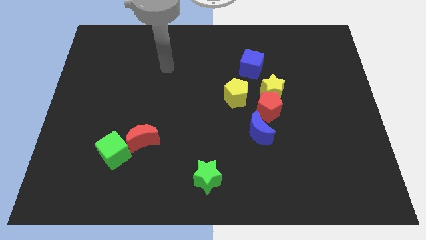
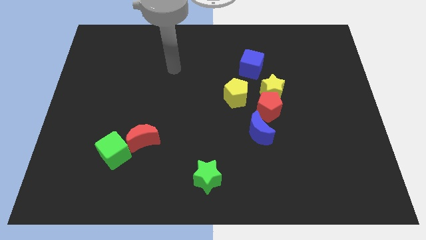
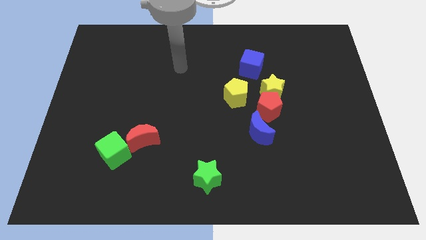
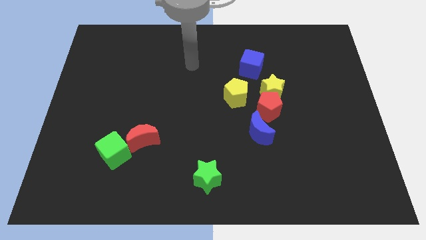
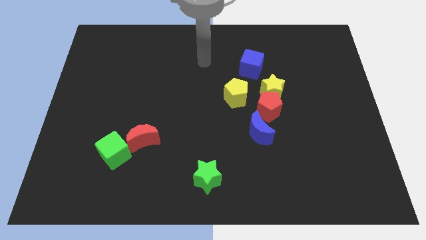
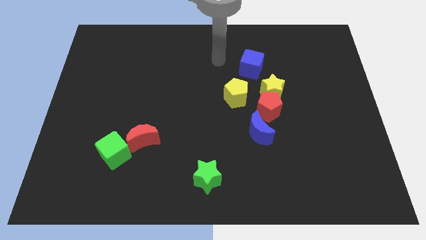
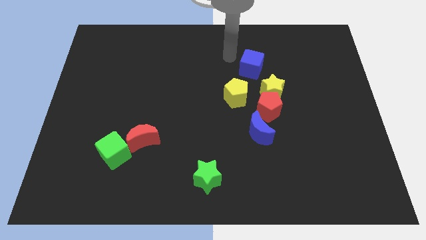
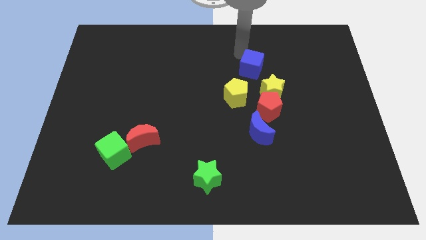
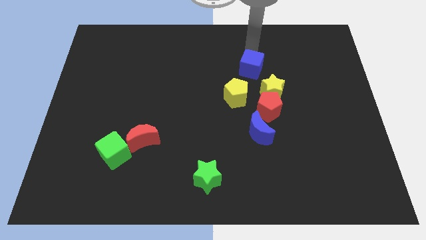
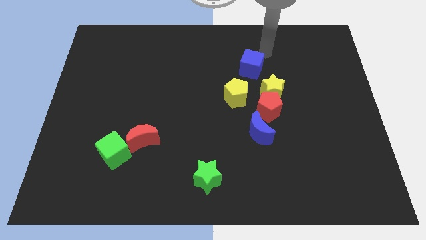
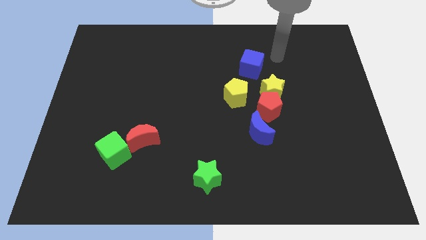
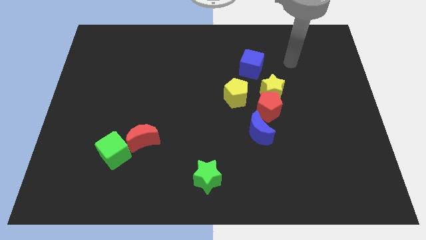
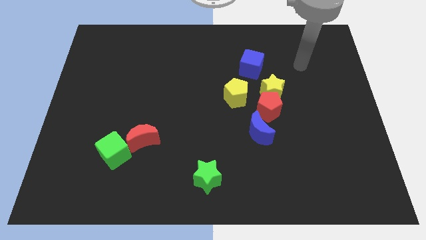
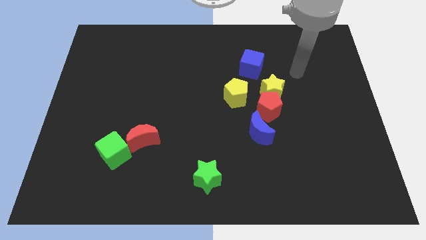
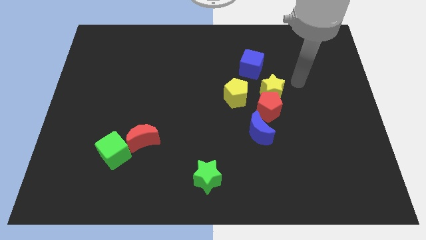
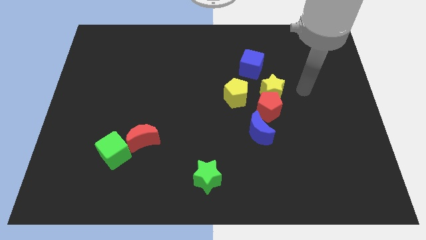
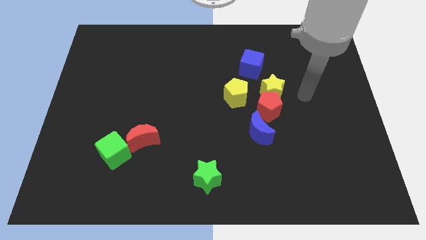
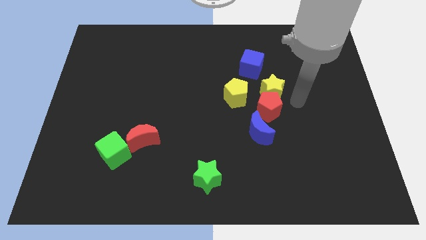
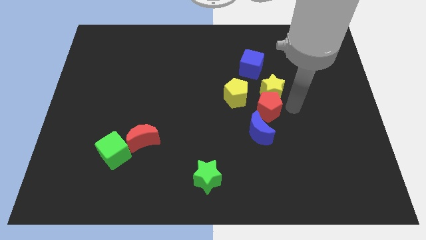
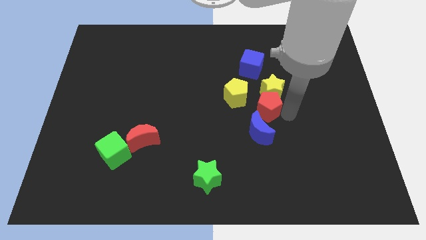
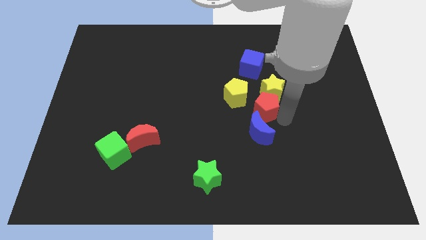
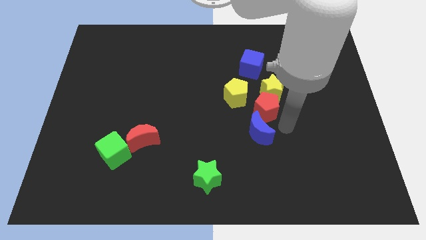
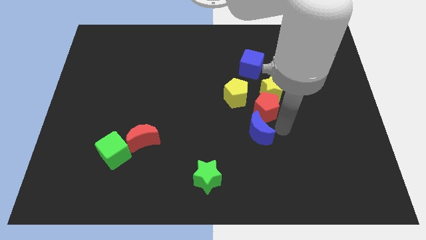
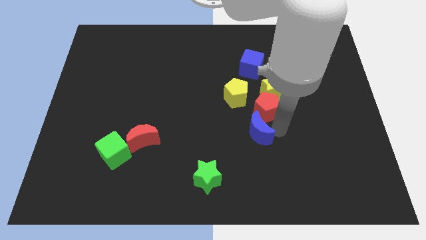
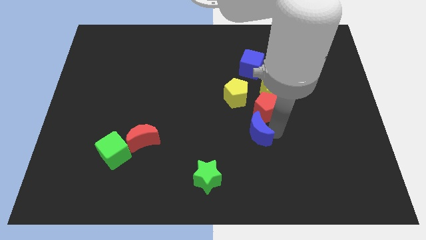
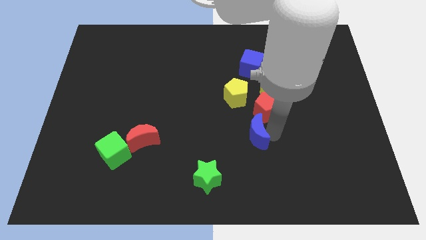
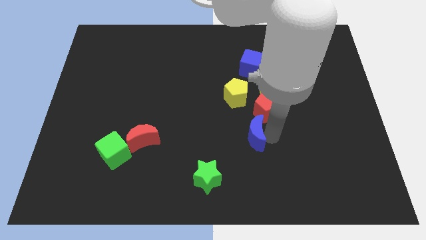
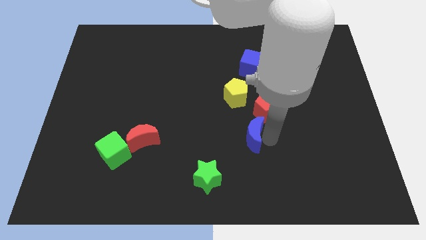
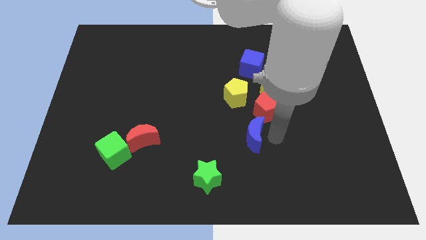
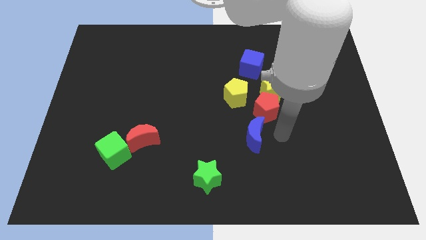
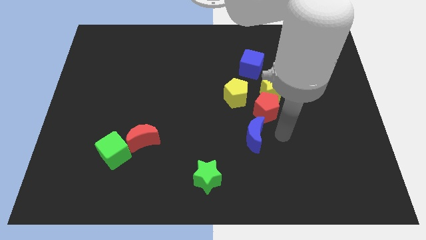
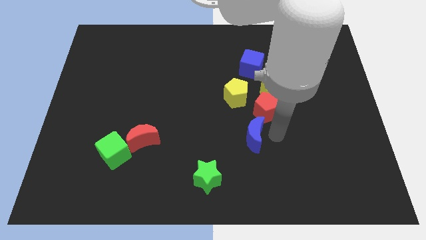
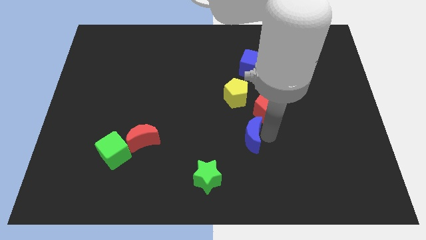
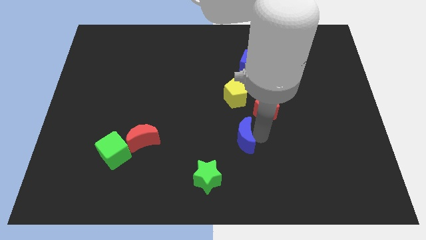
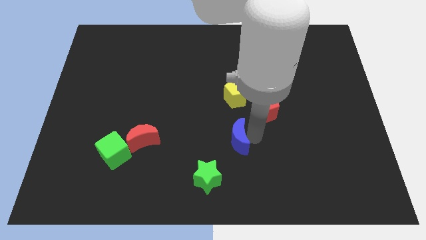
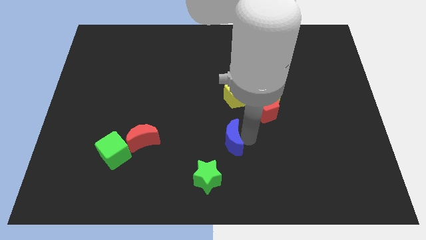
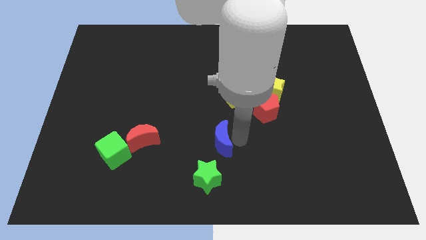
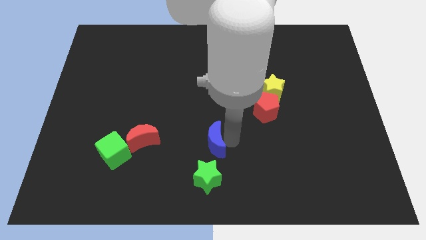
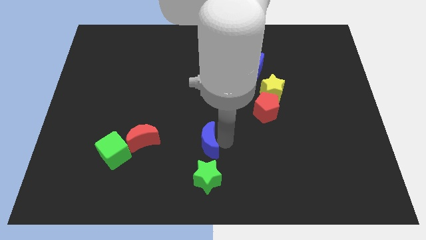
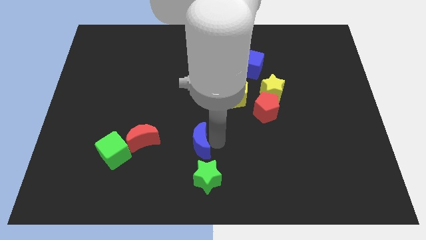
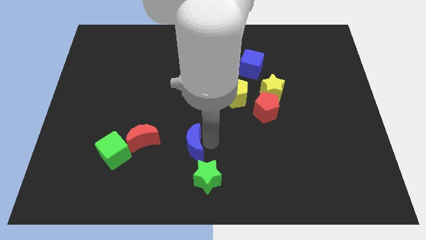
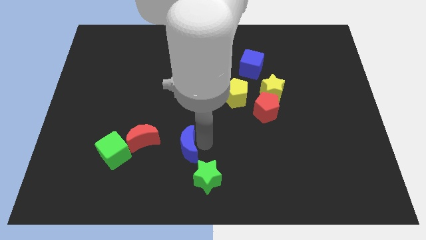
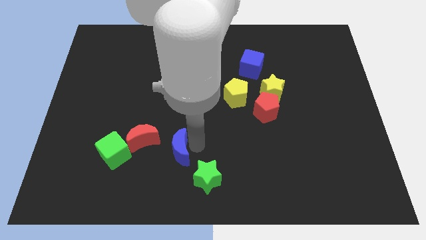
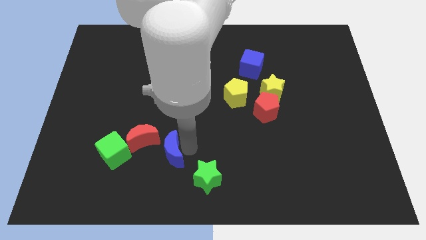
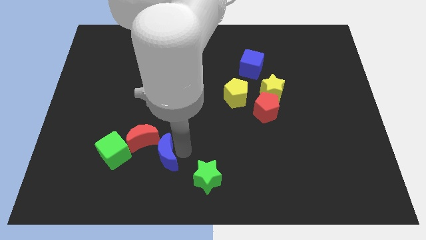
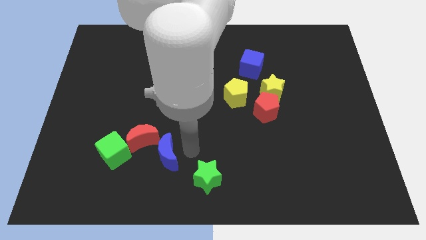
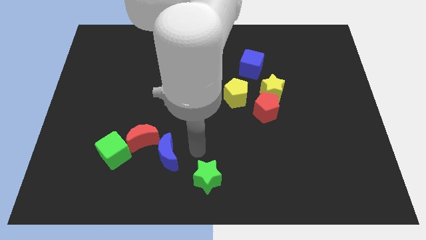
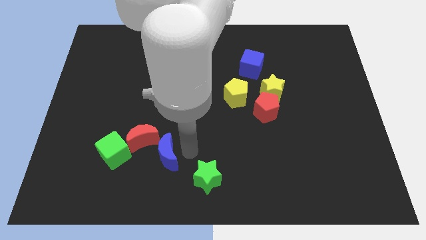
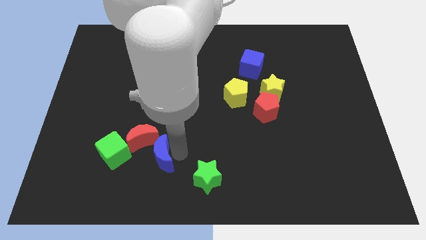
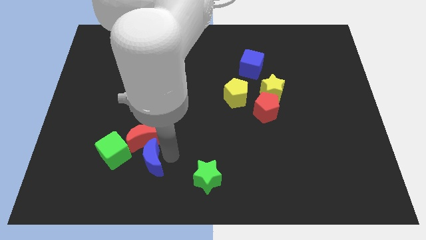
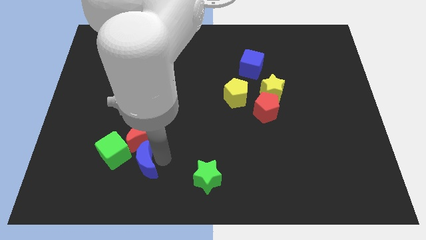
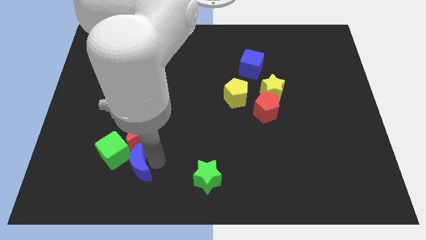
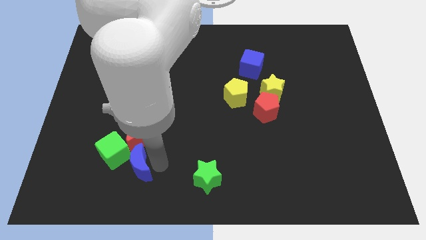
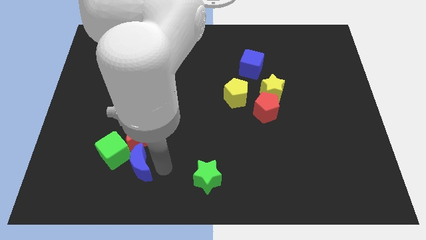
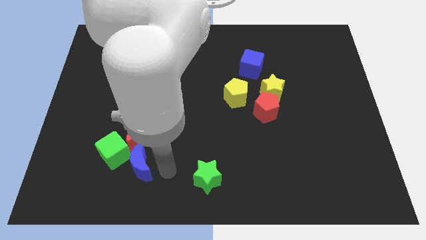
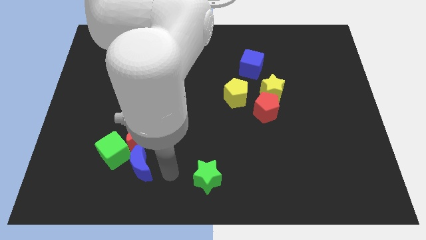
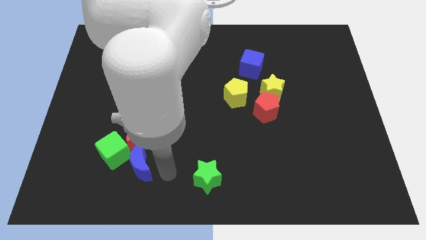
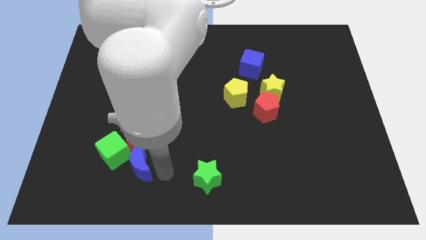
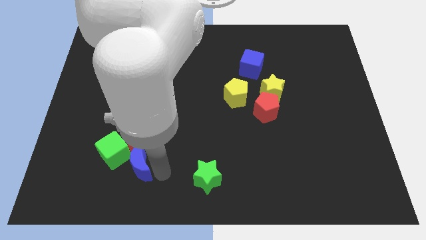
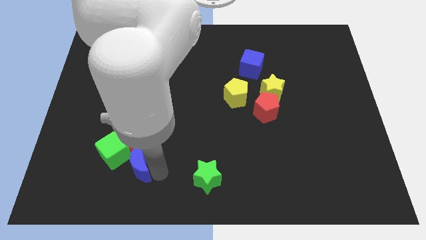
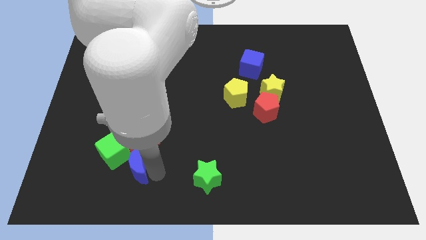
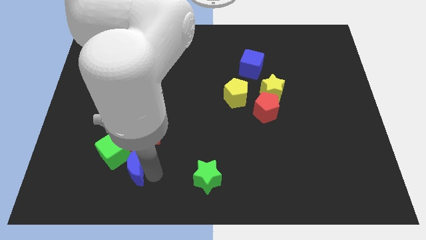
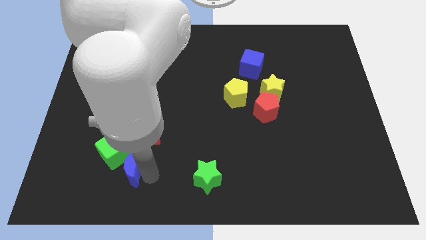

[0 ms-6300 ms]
slide the blue moon towards the green cube

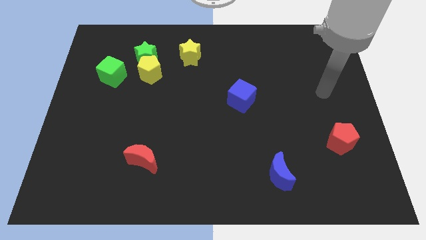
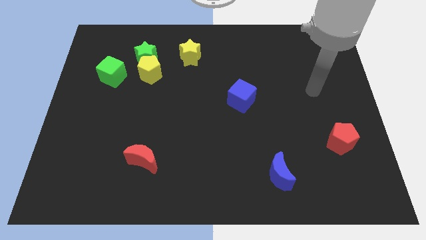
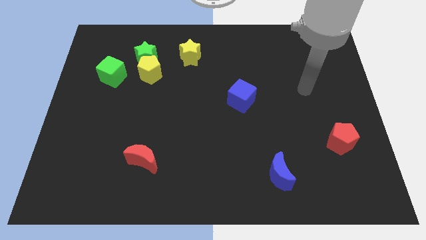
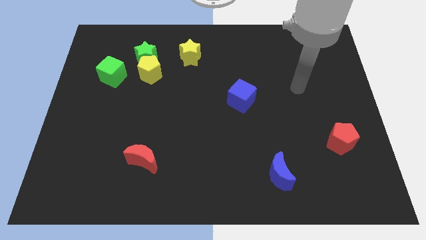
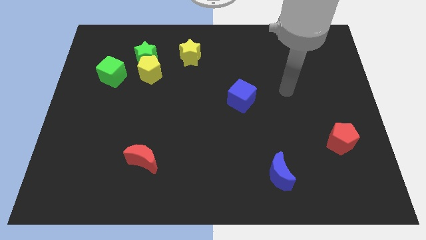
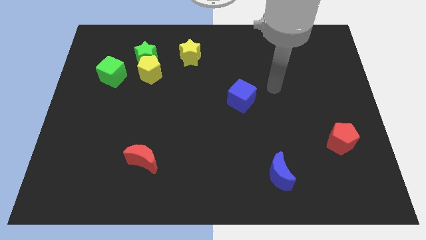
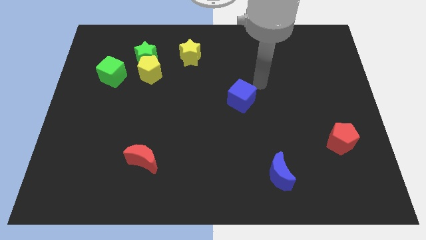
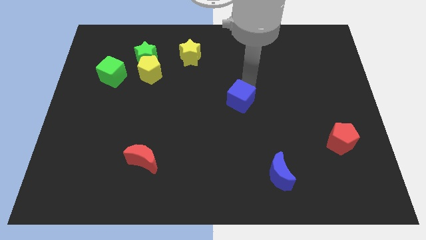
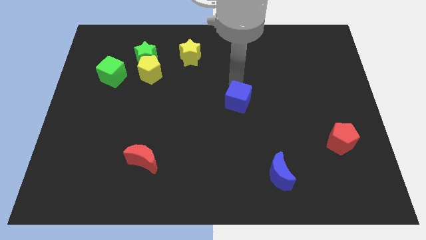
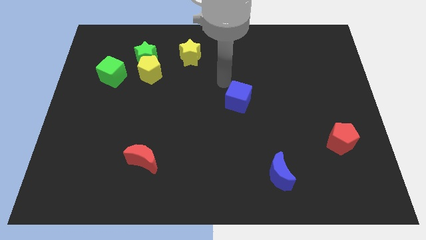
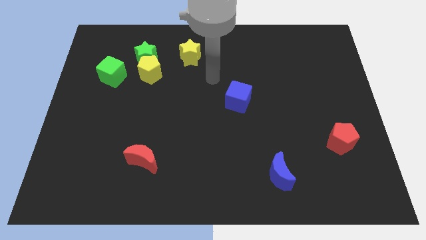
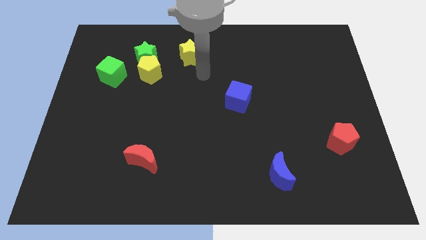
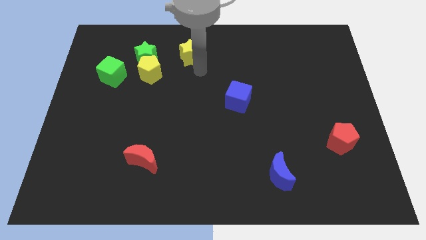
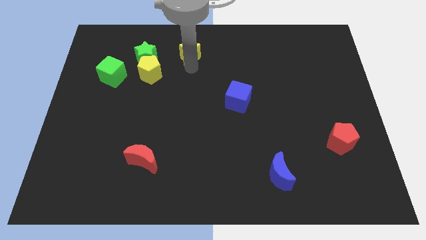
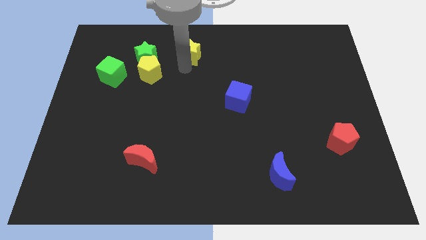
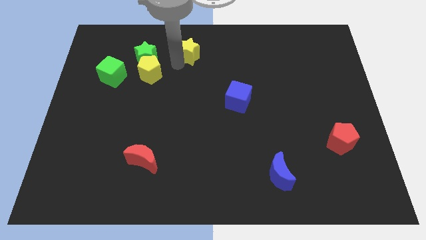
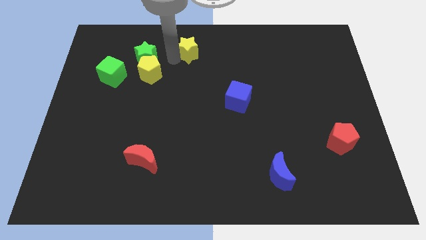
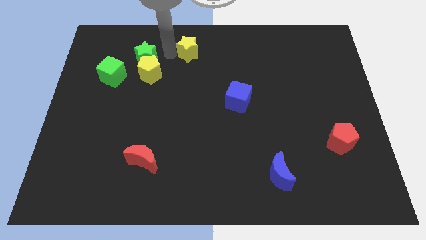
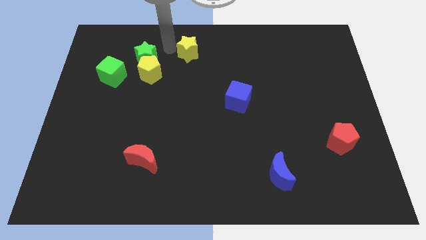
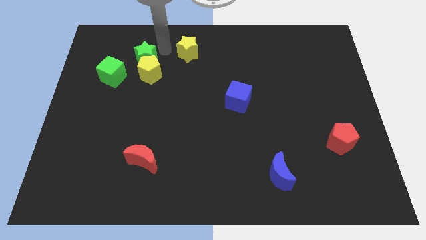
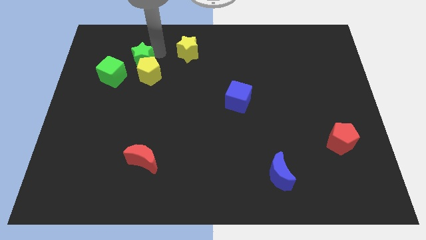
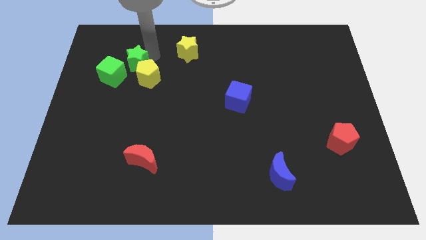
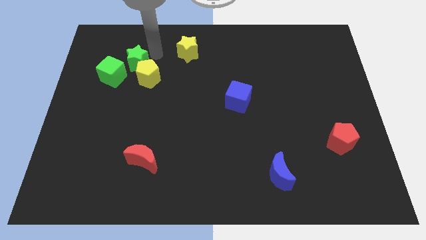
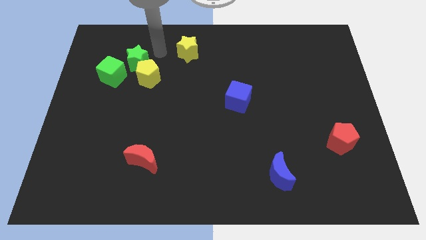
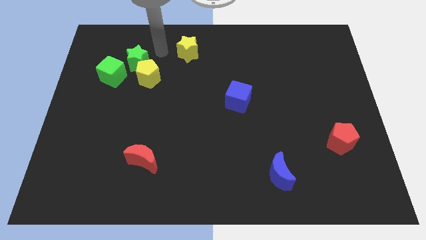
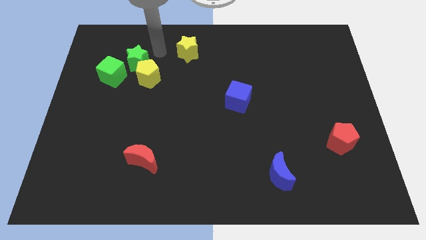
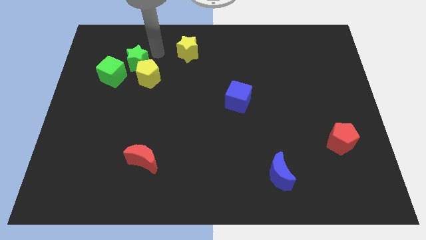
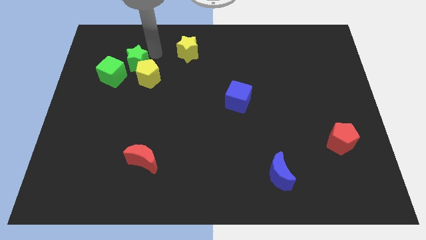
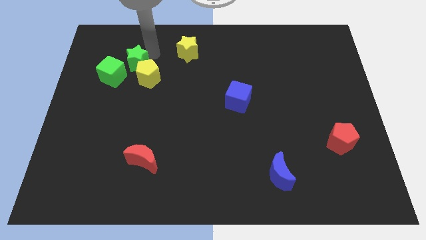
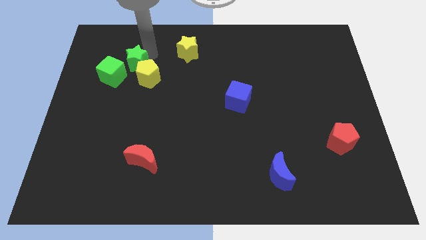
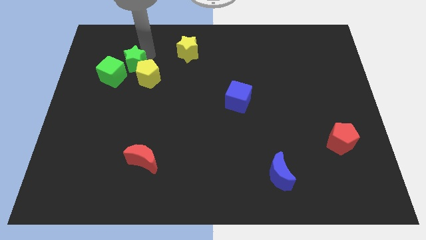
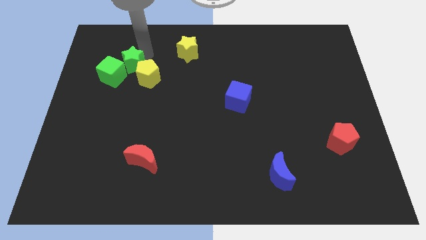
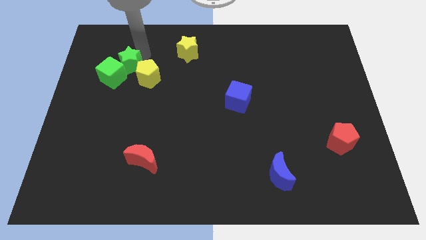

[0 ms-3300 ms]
slide the green star to the green cube
